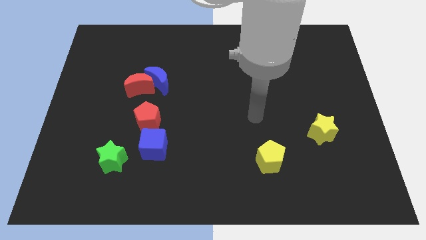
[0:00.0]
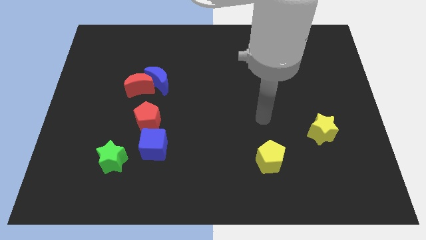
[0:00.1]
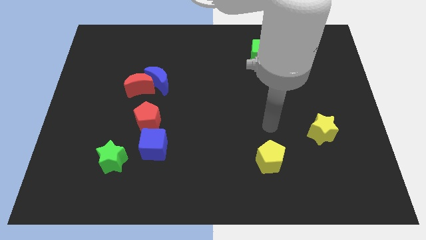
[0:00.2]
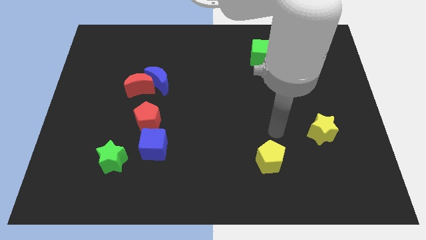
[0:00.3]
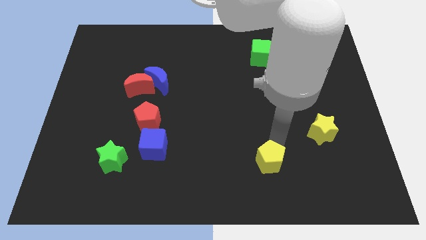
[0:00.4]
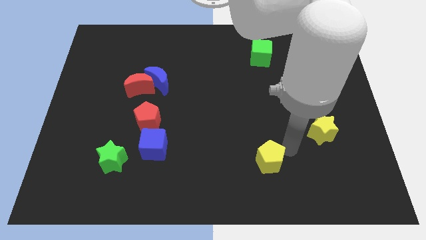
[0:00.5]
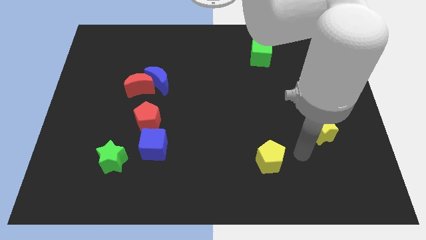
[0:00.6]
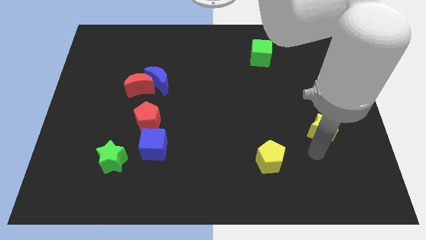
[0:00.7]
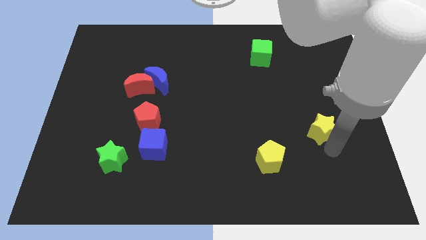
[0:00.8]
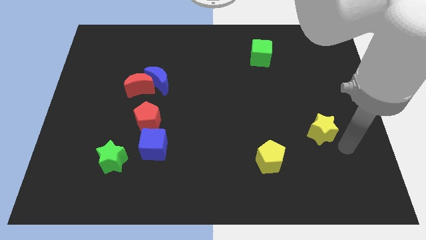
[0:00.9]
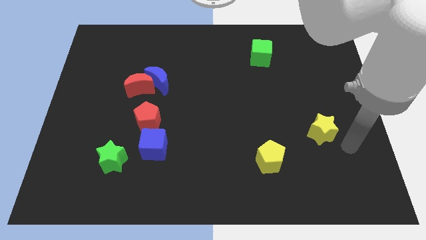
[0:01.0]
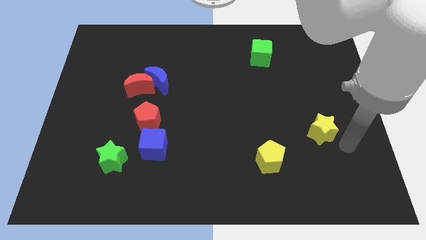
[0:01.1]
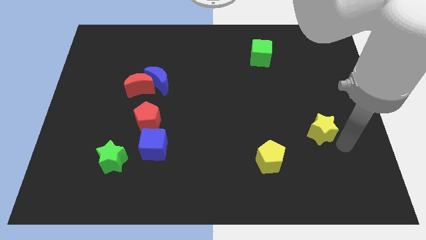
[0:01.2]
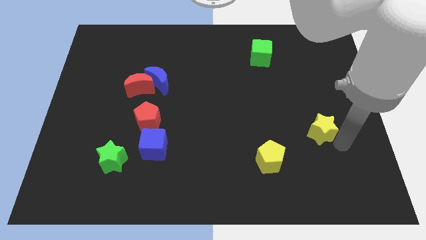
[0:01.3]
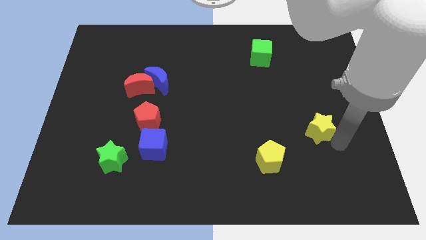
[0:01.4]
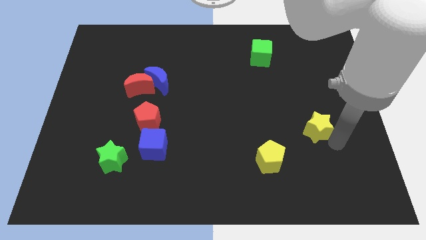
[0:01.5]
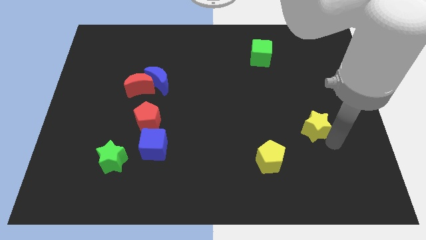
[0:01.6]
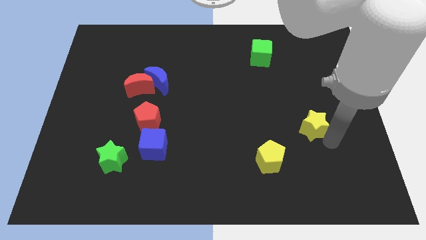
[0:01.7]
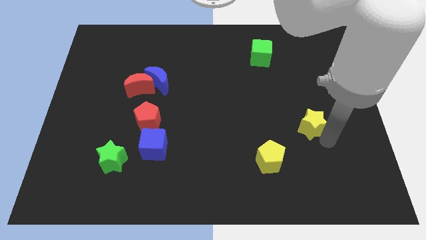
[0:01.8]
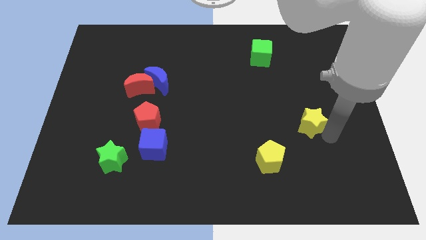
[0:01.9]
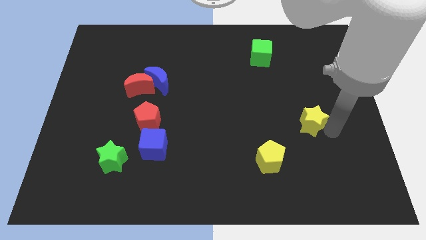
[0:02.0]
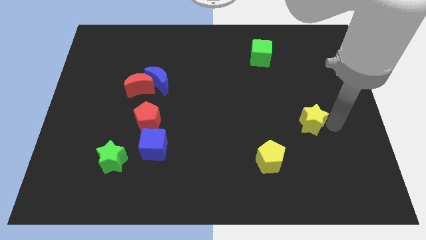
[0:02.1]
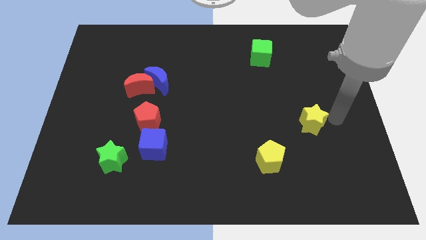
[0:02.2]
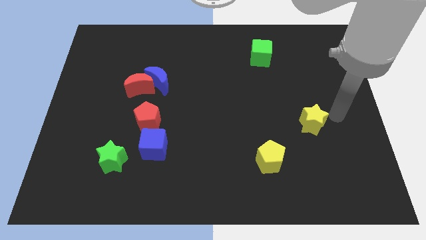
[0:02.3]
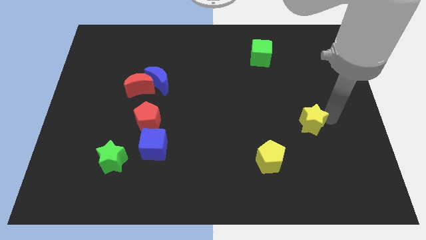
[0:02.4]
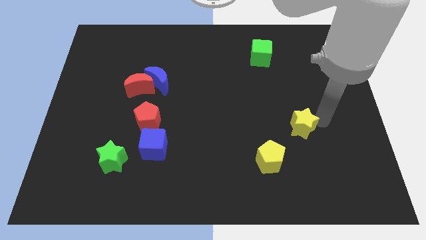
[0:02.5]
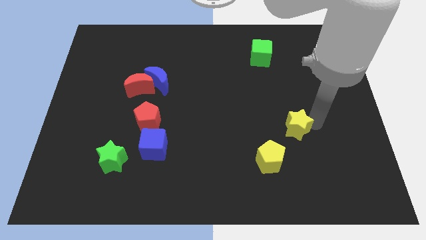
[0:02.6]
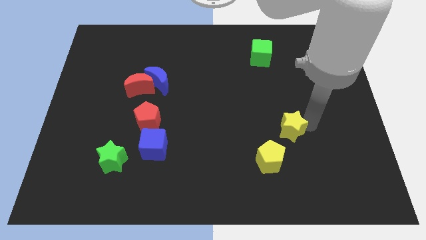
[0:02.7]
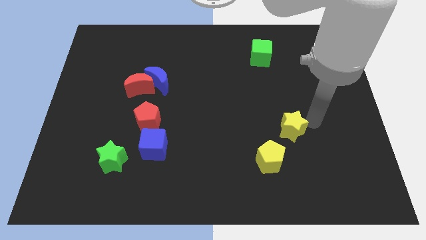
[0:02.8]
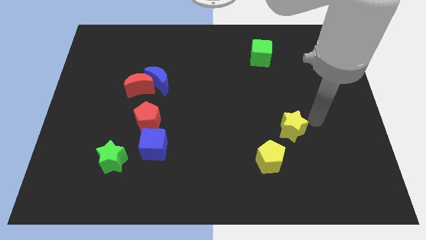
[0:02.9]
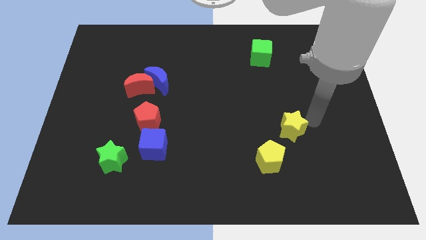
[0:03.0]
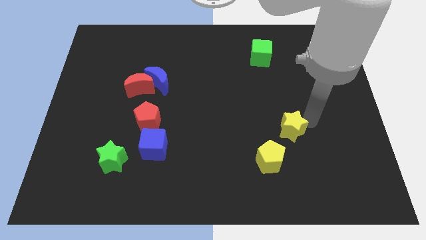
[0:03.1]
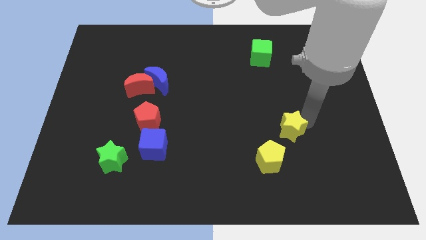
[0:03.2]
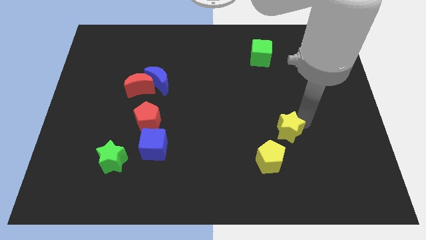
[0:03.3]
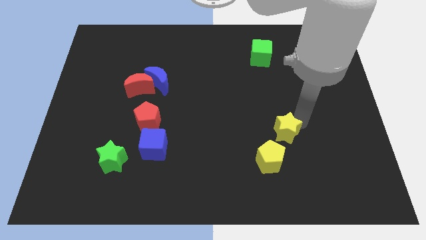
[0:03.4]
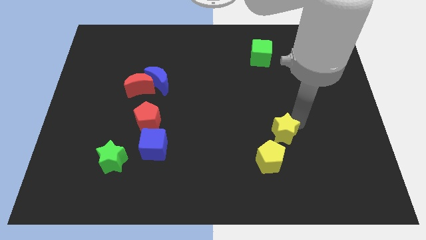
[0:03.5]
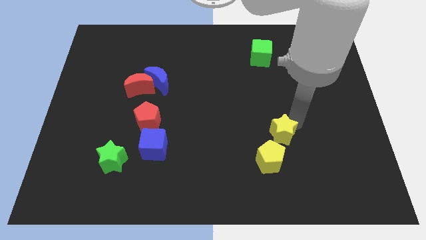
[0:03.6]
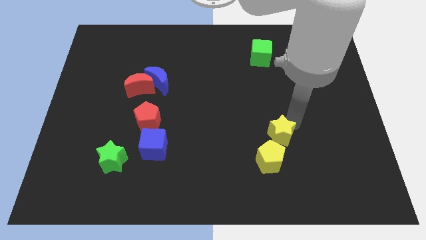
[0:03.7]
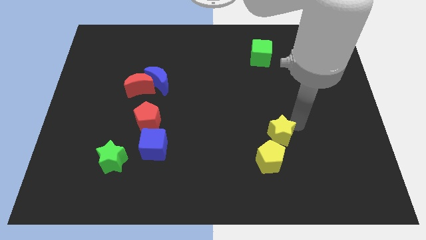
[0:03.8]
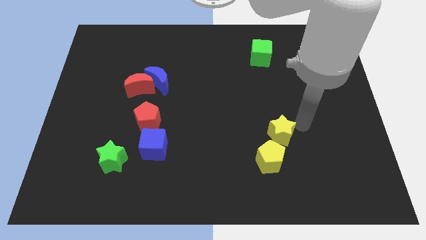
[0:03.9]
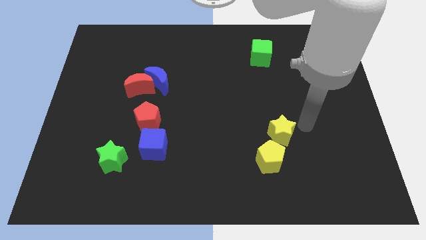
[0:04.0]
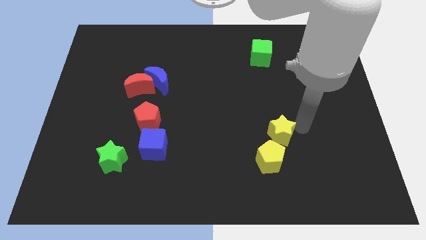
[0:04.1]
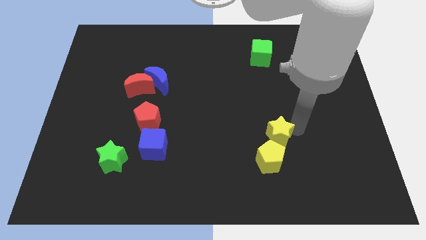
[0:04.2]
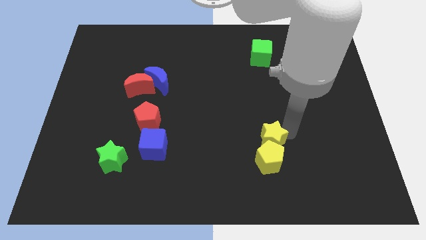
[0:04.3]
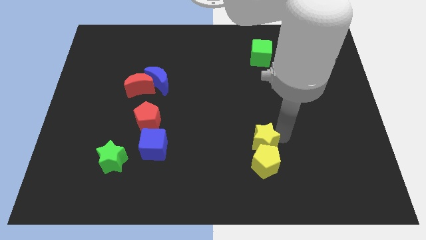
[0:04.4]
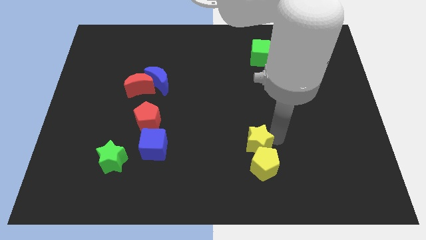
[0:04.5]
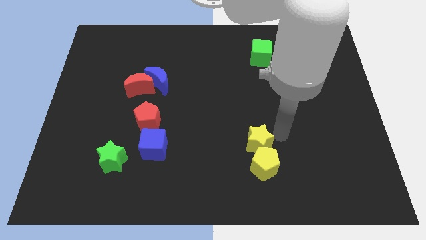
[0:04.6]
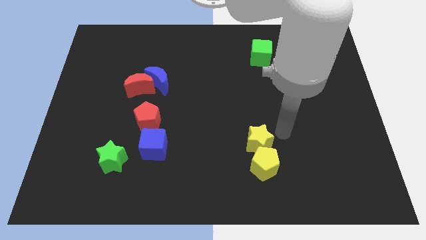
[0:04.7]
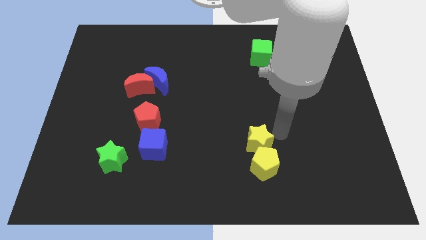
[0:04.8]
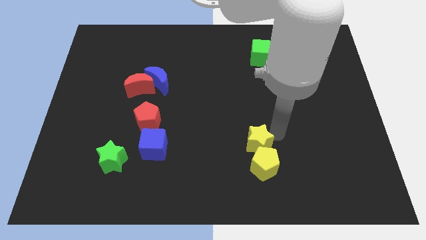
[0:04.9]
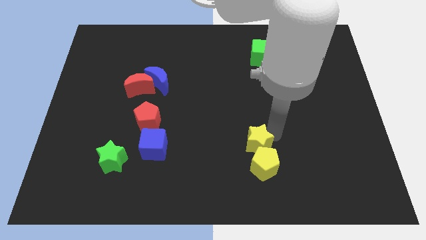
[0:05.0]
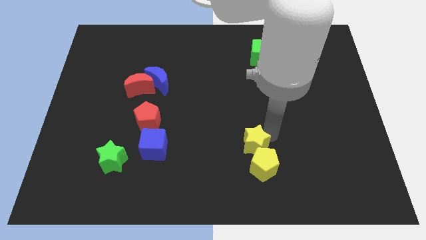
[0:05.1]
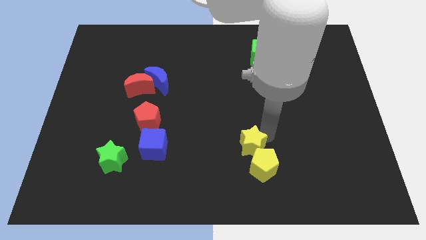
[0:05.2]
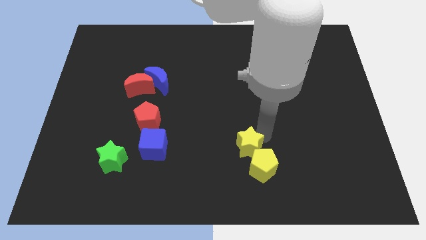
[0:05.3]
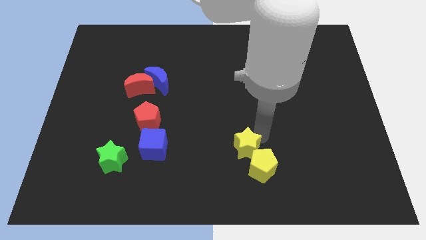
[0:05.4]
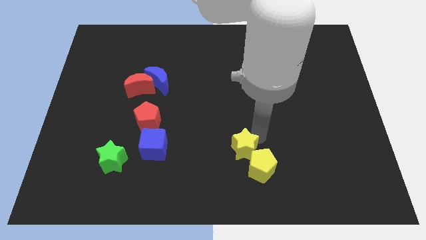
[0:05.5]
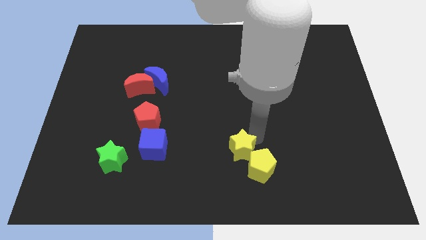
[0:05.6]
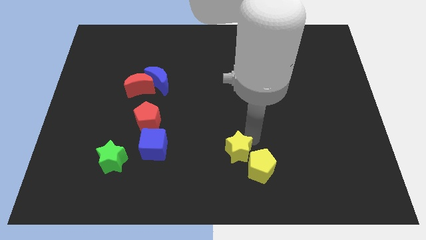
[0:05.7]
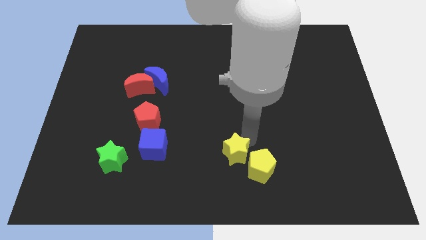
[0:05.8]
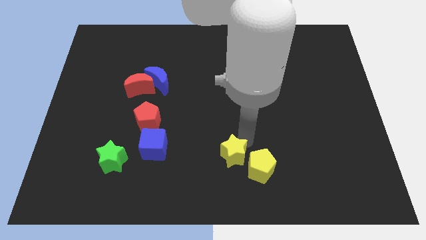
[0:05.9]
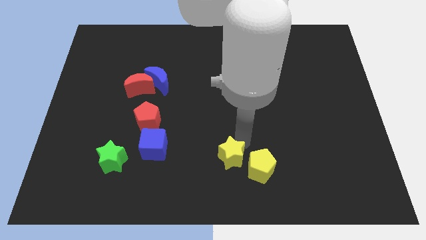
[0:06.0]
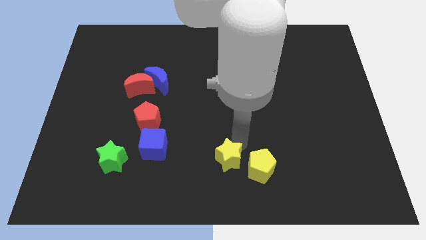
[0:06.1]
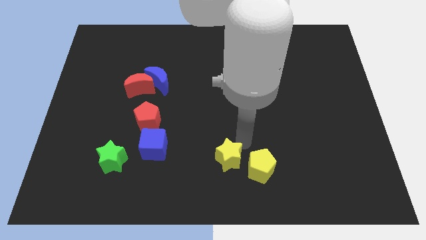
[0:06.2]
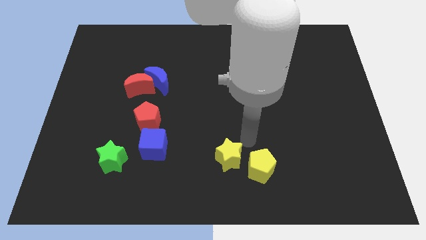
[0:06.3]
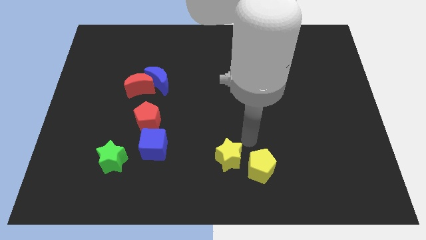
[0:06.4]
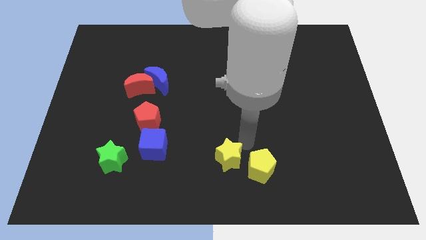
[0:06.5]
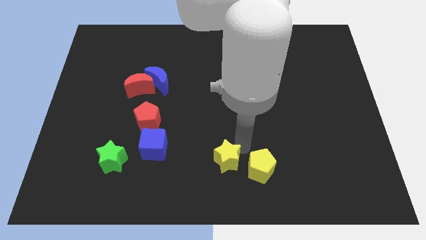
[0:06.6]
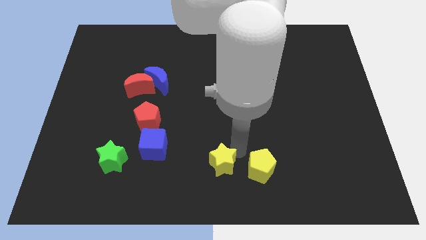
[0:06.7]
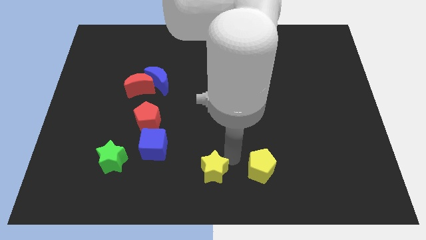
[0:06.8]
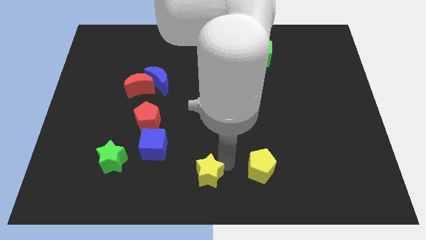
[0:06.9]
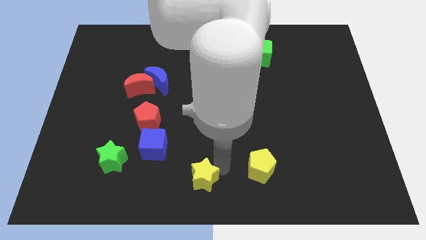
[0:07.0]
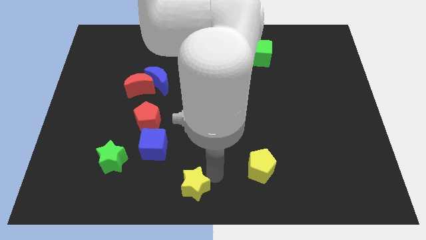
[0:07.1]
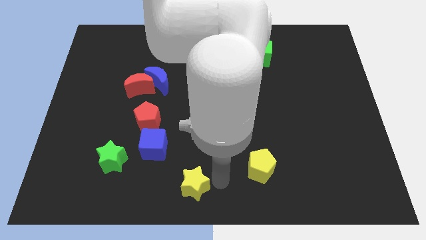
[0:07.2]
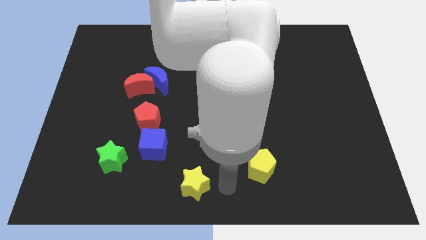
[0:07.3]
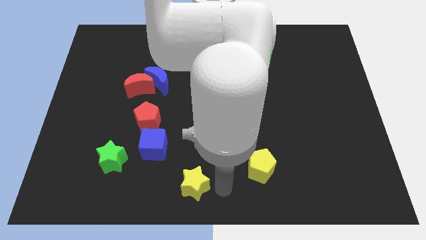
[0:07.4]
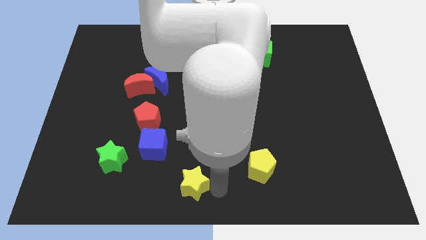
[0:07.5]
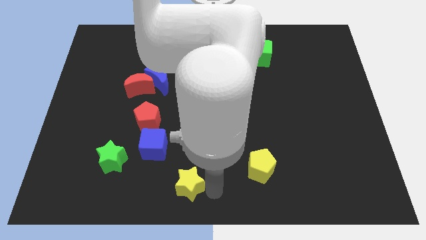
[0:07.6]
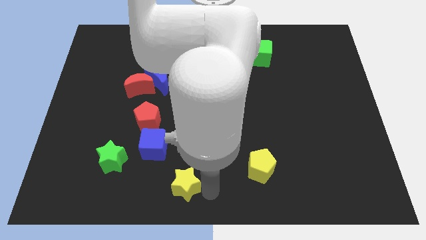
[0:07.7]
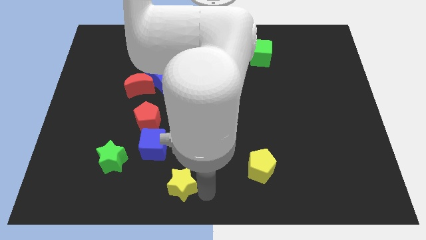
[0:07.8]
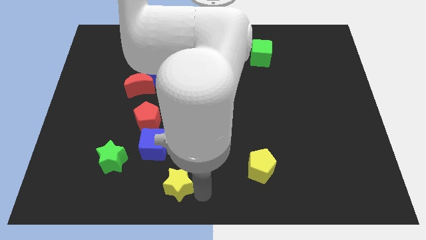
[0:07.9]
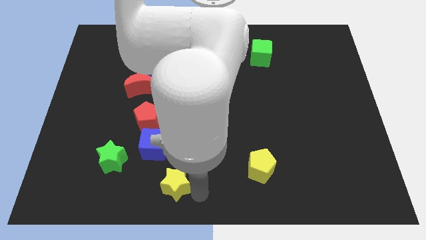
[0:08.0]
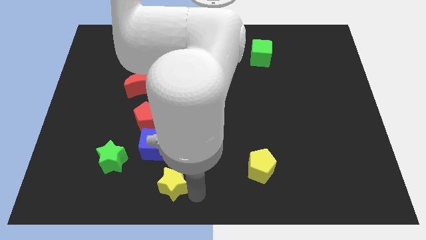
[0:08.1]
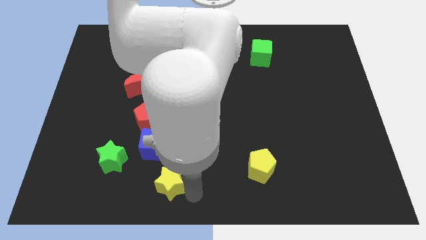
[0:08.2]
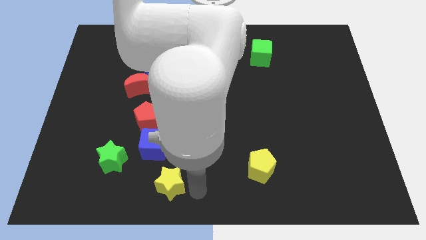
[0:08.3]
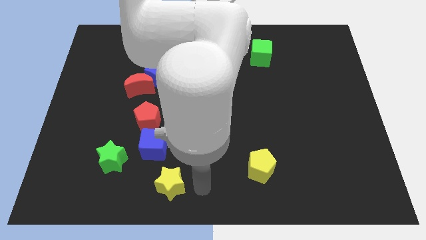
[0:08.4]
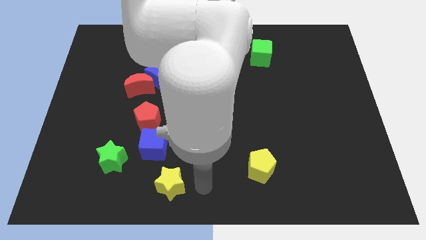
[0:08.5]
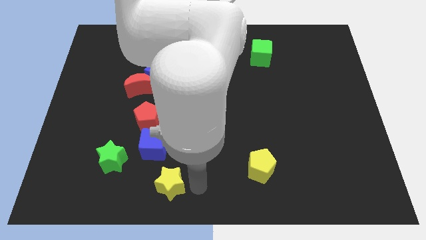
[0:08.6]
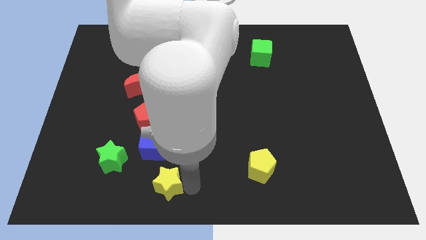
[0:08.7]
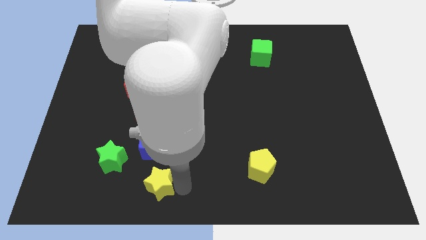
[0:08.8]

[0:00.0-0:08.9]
slide the yellow star to the bottom right of the green star
